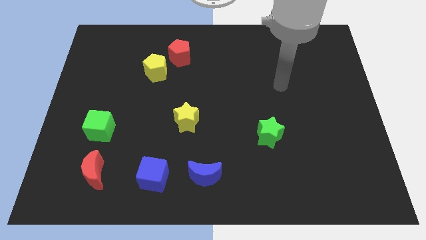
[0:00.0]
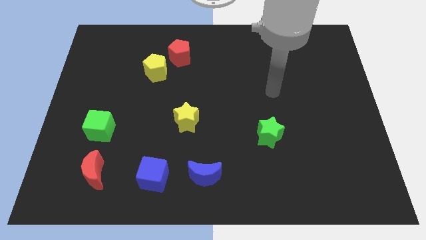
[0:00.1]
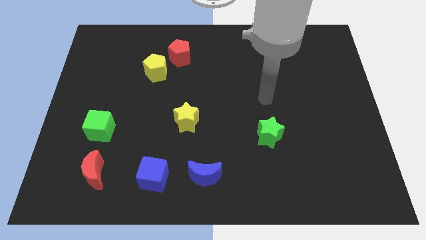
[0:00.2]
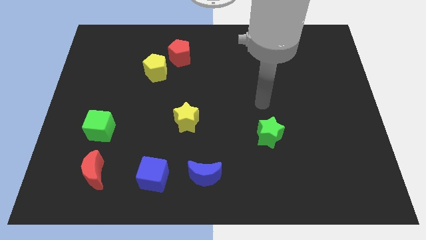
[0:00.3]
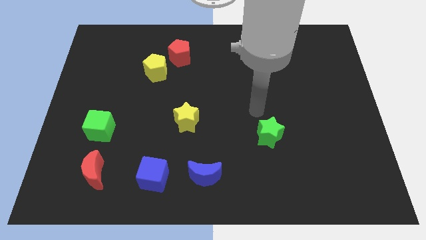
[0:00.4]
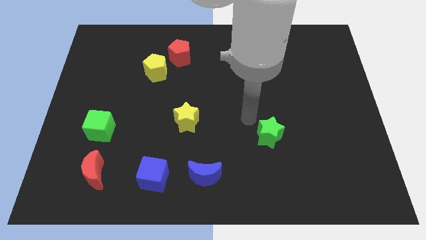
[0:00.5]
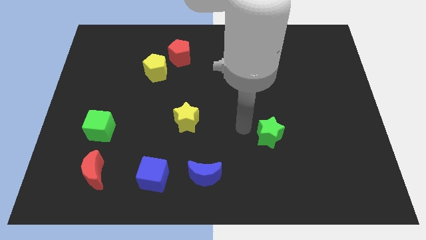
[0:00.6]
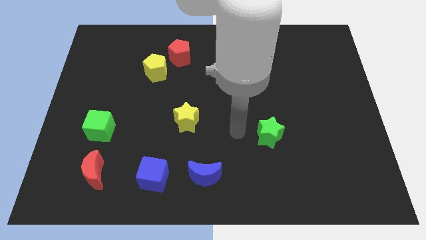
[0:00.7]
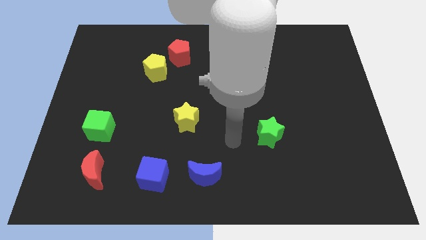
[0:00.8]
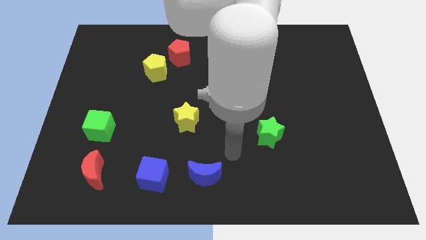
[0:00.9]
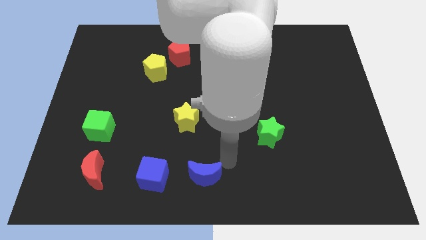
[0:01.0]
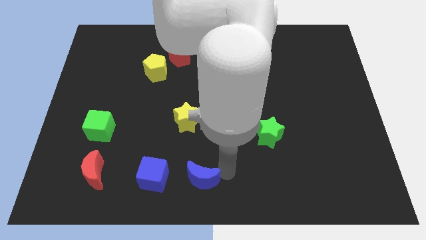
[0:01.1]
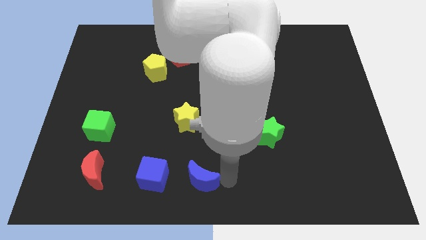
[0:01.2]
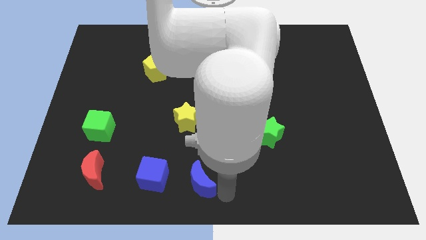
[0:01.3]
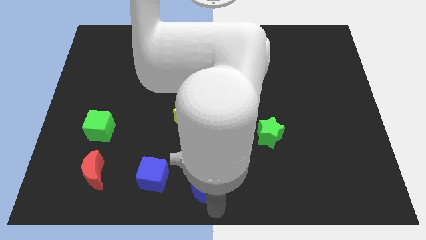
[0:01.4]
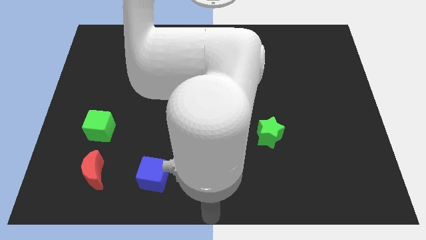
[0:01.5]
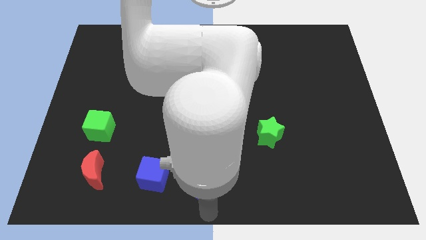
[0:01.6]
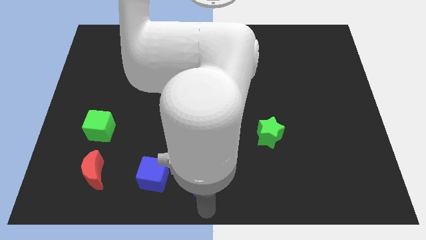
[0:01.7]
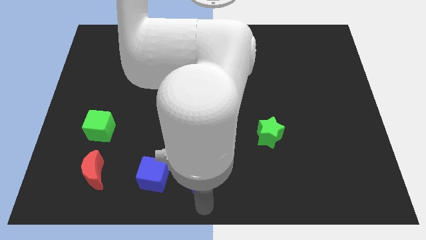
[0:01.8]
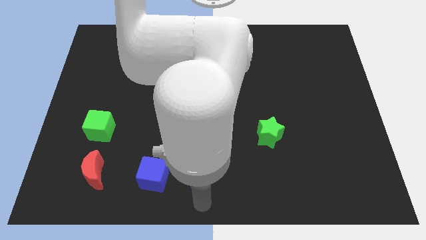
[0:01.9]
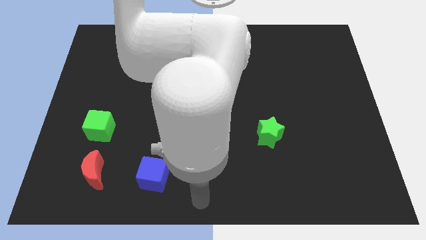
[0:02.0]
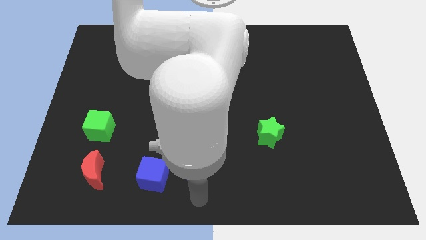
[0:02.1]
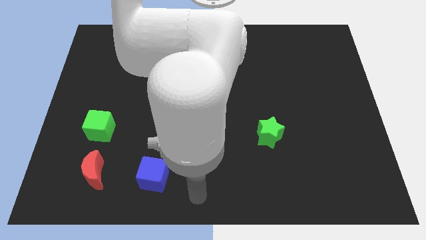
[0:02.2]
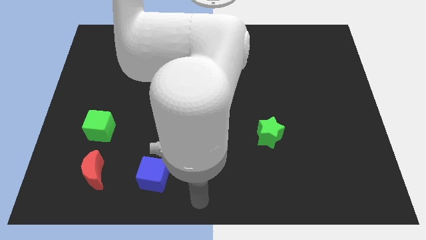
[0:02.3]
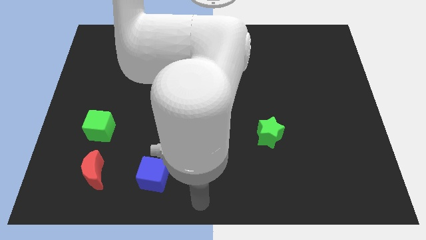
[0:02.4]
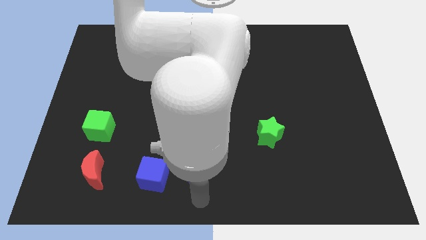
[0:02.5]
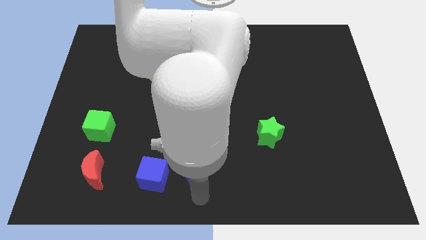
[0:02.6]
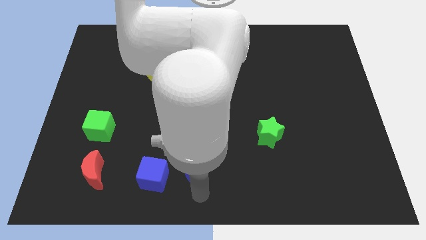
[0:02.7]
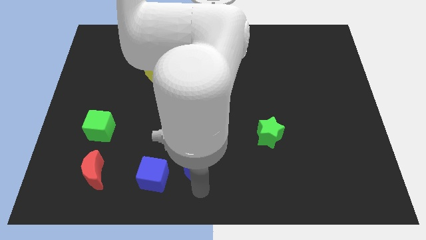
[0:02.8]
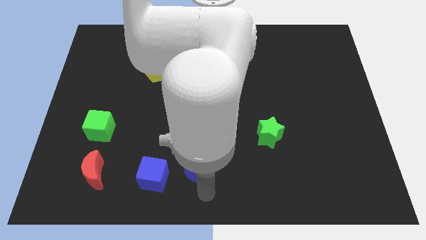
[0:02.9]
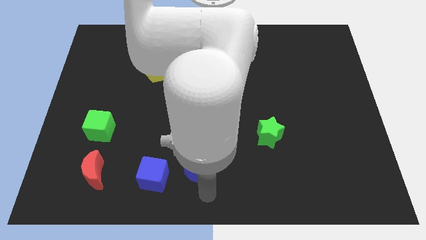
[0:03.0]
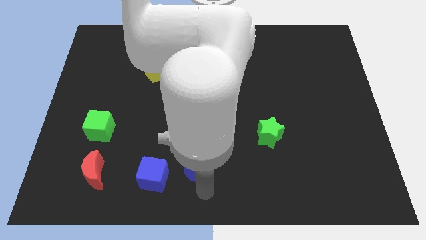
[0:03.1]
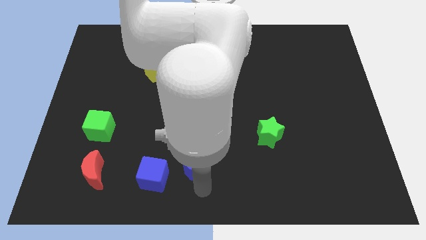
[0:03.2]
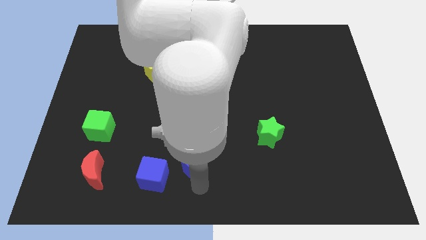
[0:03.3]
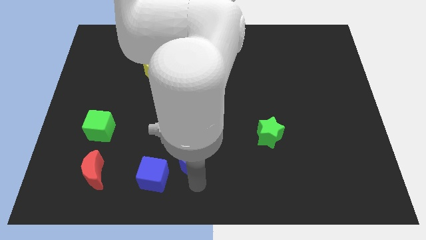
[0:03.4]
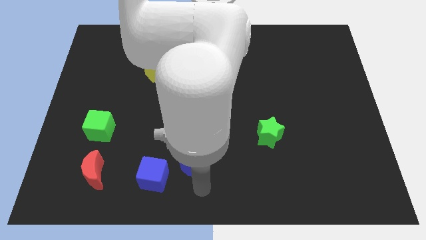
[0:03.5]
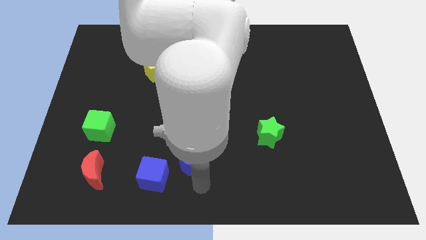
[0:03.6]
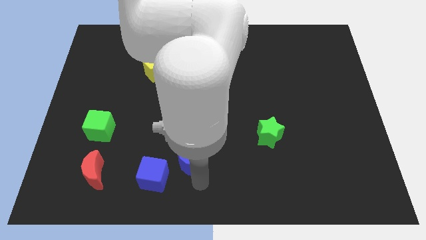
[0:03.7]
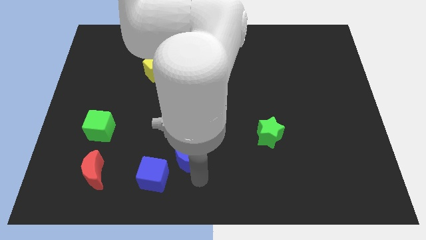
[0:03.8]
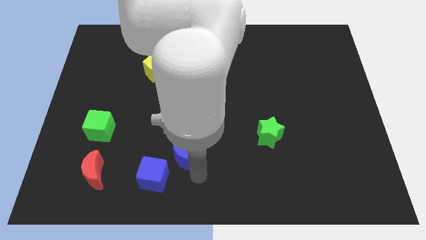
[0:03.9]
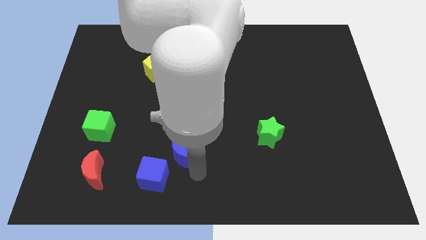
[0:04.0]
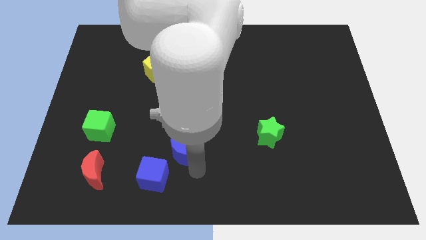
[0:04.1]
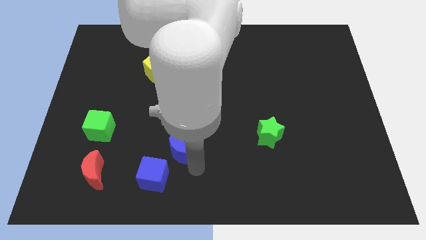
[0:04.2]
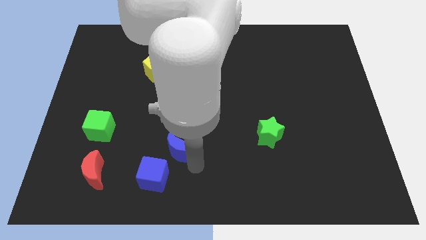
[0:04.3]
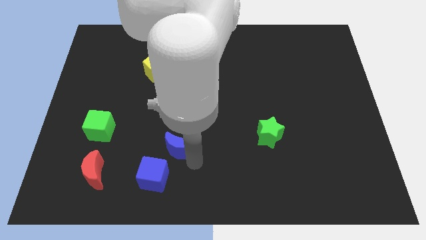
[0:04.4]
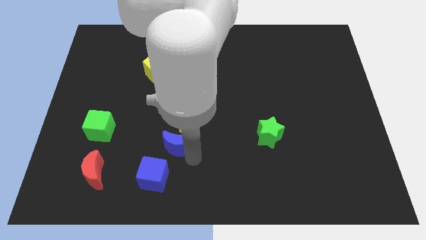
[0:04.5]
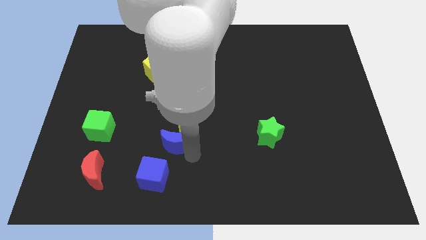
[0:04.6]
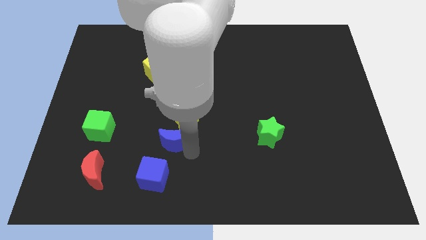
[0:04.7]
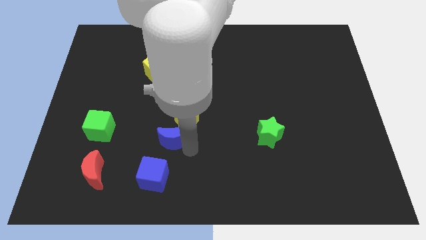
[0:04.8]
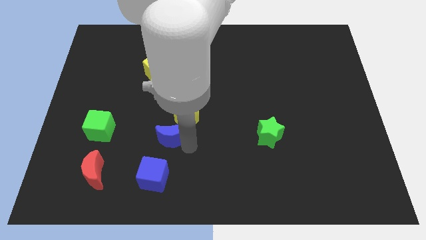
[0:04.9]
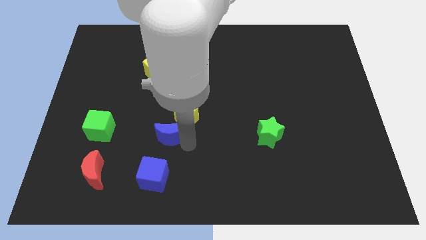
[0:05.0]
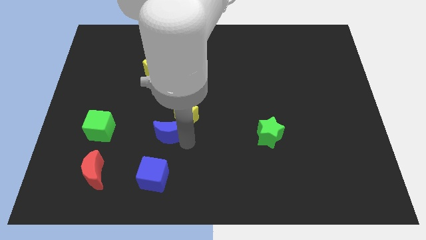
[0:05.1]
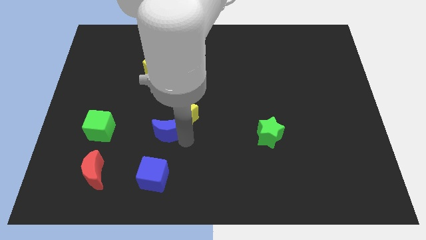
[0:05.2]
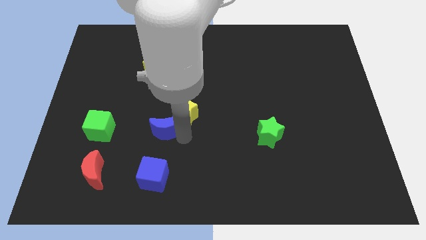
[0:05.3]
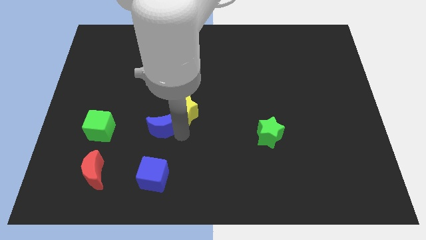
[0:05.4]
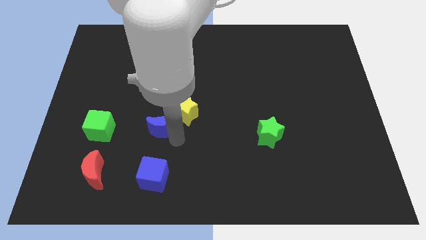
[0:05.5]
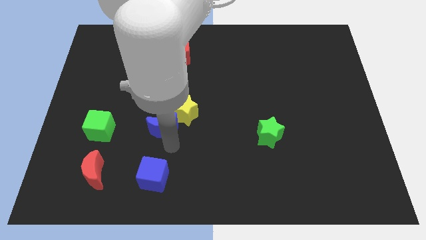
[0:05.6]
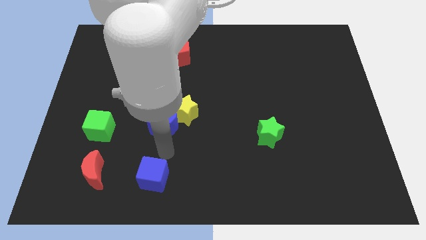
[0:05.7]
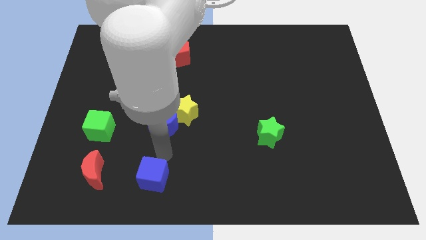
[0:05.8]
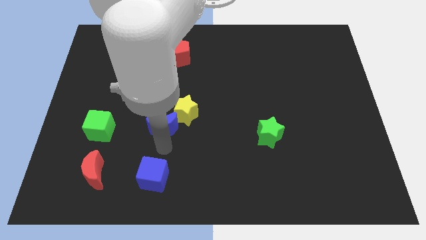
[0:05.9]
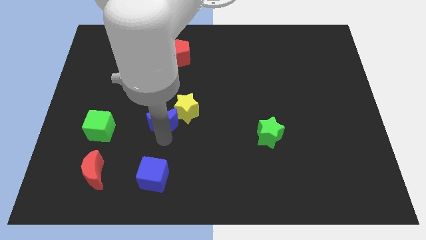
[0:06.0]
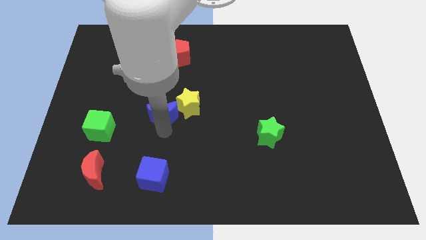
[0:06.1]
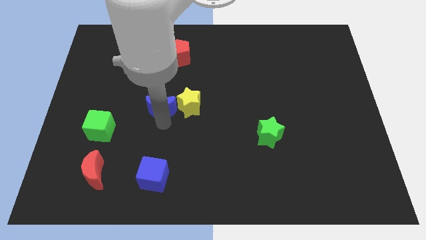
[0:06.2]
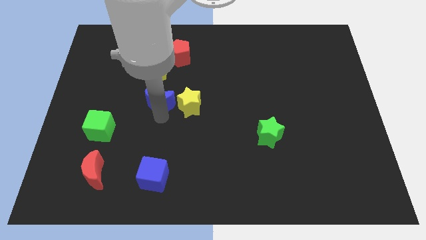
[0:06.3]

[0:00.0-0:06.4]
move the blue moon diagonally up and to the left of the yellow star

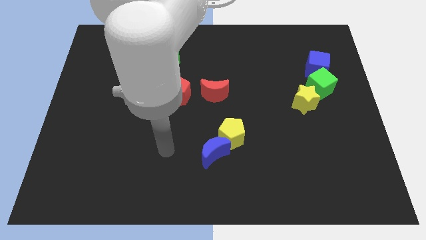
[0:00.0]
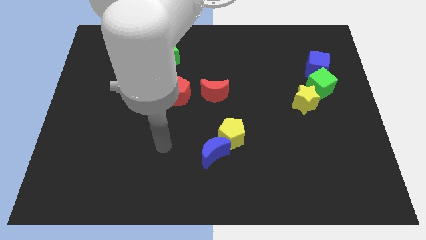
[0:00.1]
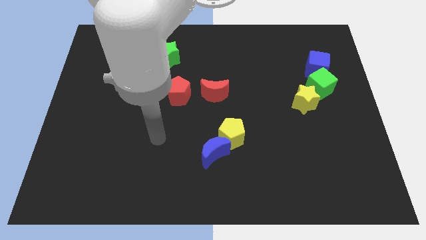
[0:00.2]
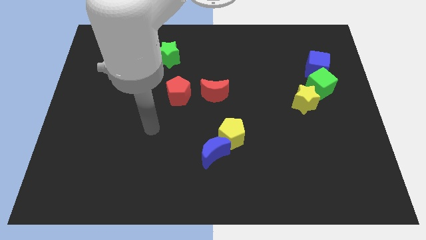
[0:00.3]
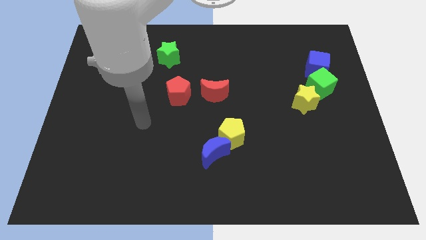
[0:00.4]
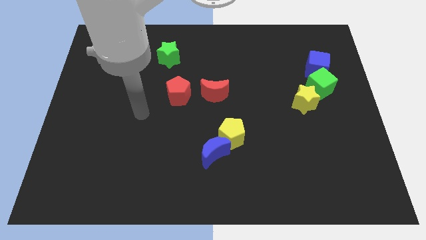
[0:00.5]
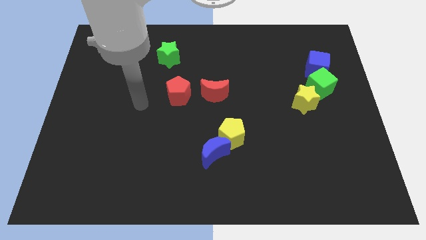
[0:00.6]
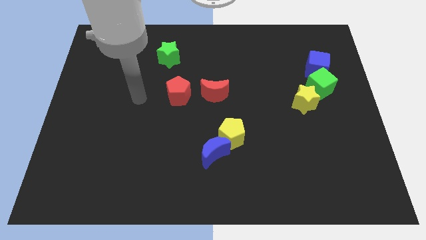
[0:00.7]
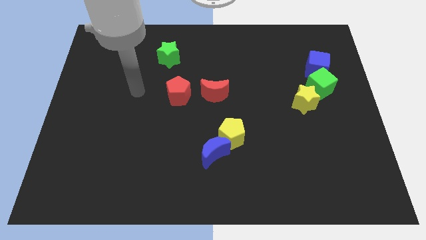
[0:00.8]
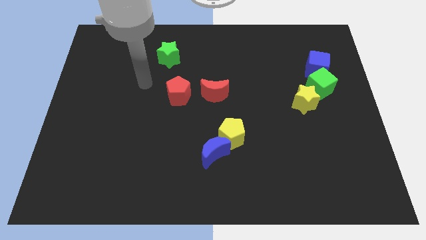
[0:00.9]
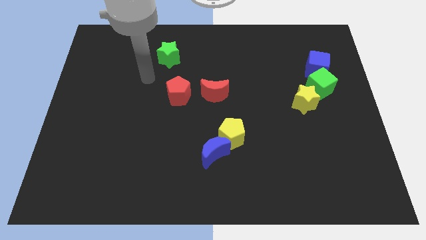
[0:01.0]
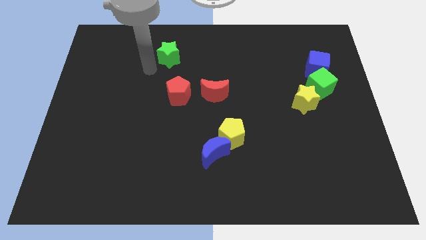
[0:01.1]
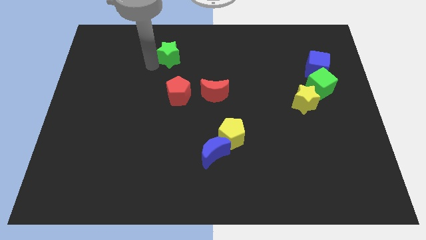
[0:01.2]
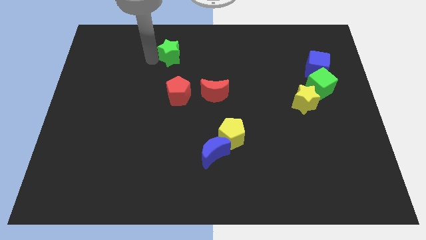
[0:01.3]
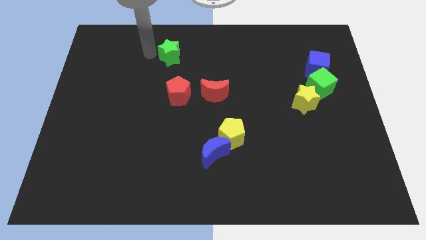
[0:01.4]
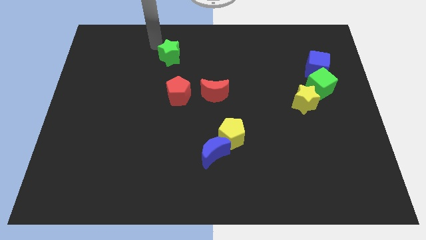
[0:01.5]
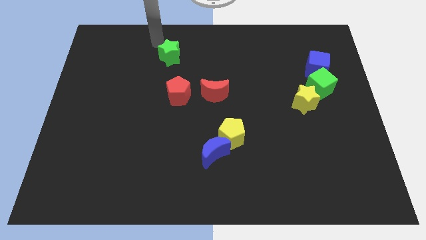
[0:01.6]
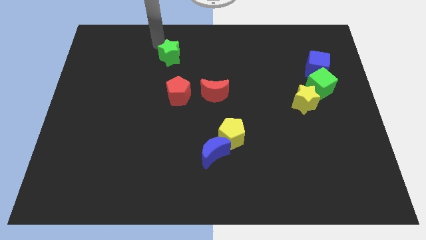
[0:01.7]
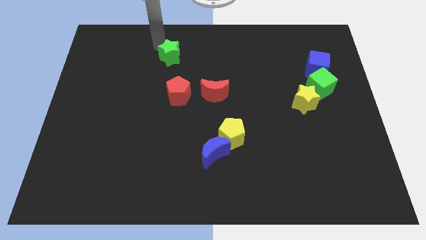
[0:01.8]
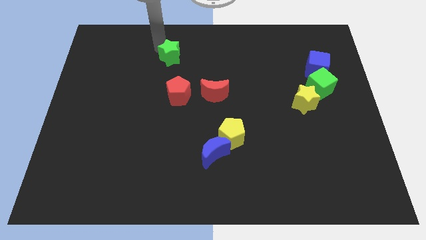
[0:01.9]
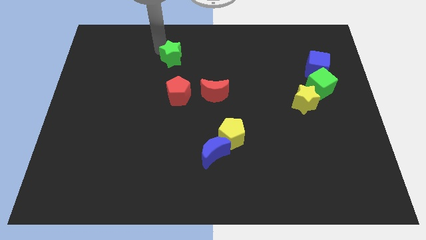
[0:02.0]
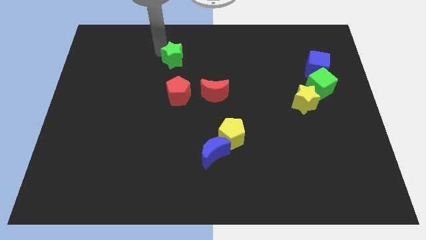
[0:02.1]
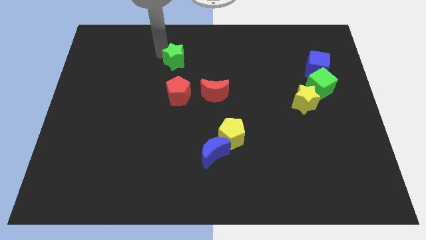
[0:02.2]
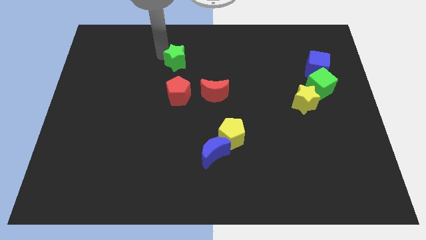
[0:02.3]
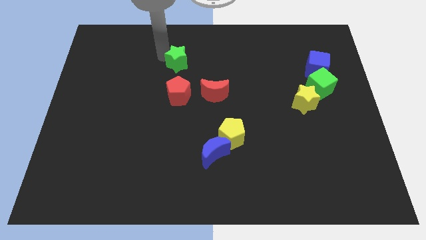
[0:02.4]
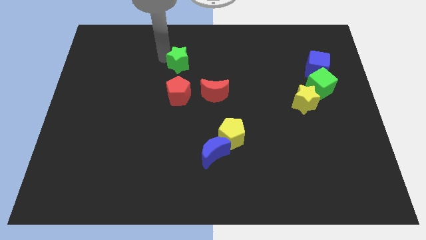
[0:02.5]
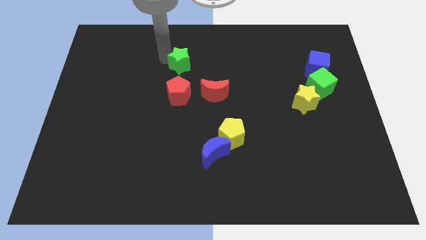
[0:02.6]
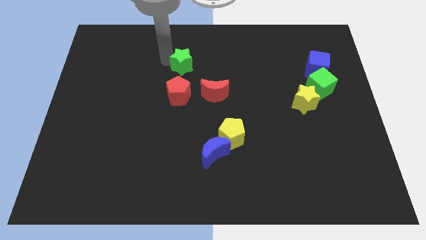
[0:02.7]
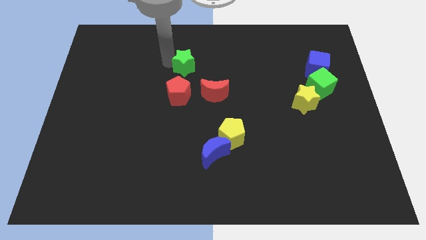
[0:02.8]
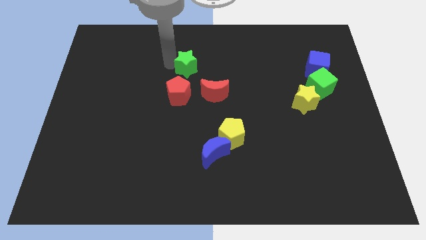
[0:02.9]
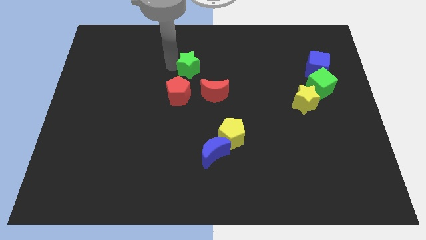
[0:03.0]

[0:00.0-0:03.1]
push the green star to the top right of the red pentagon
